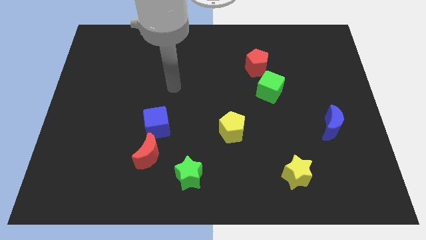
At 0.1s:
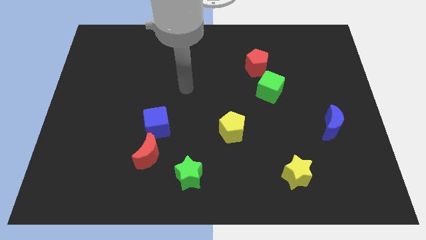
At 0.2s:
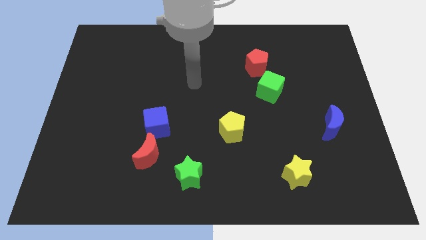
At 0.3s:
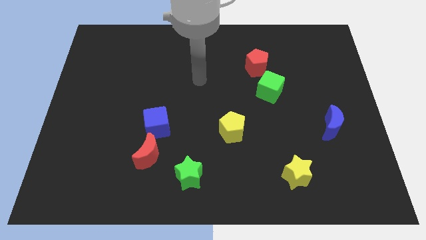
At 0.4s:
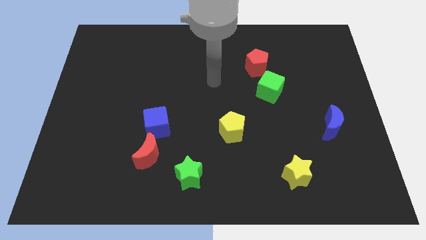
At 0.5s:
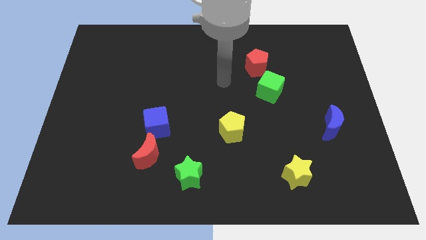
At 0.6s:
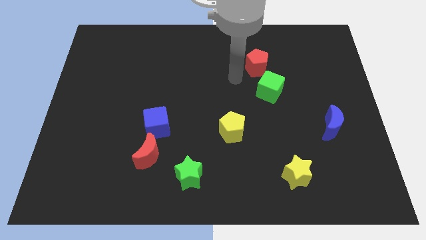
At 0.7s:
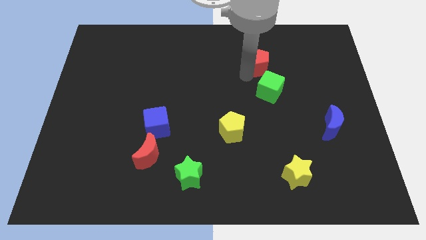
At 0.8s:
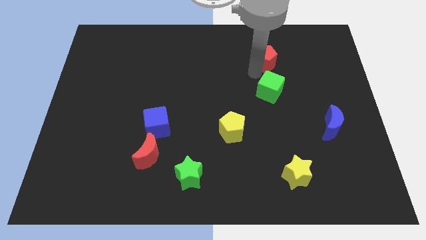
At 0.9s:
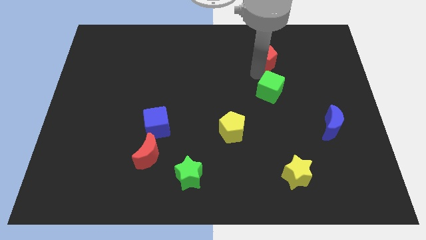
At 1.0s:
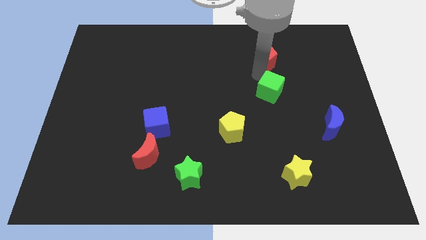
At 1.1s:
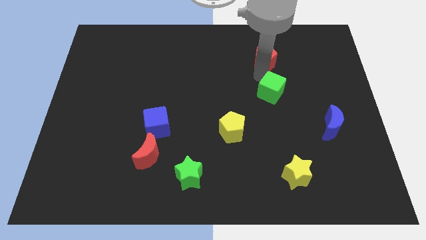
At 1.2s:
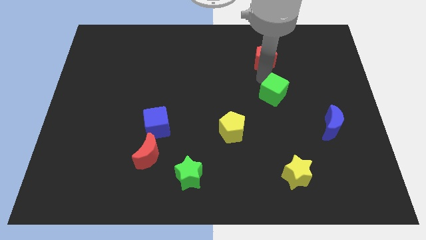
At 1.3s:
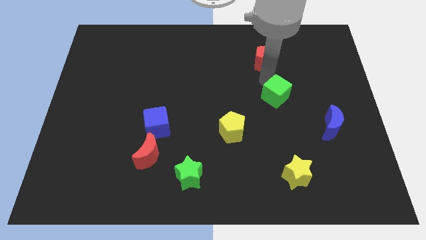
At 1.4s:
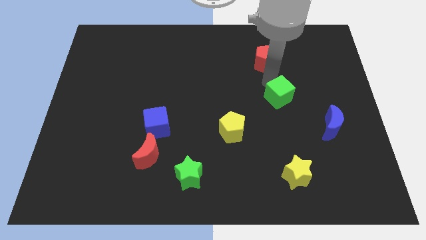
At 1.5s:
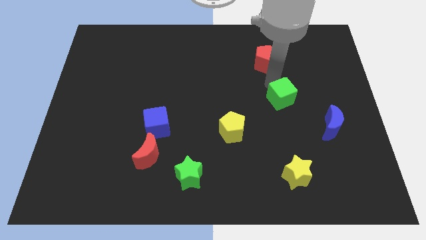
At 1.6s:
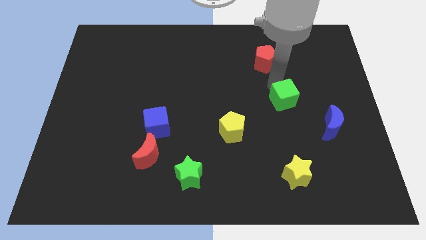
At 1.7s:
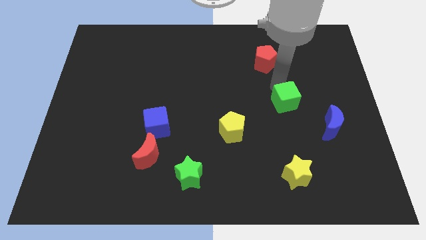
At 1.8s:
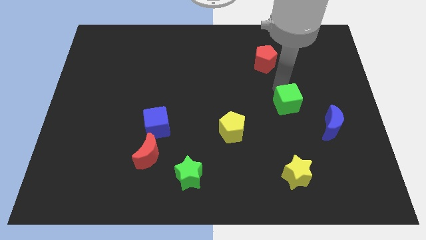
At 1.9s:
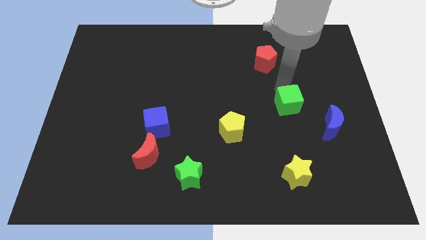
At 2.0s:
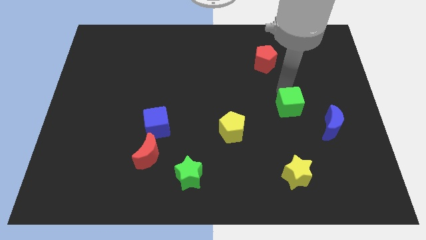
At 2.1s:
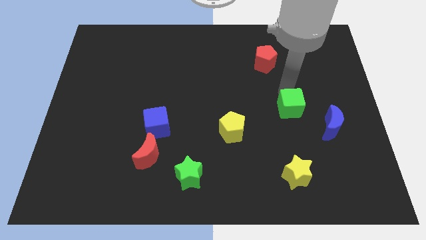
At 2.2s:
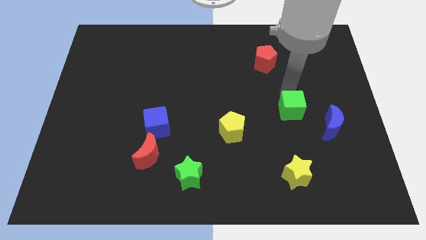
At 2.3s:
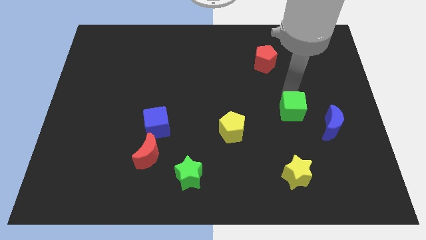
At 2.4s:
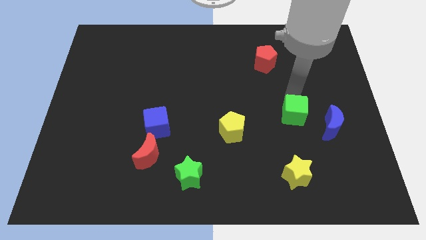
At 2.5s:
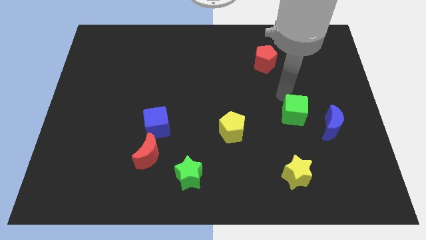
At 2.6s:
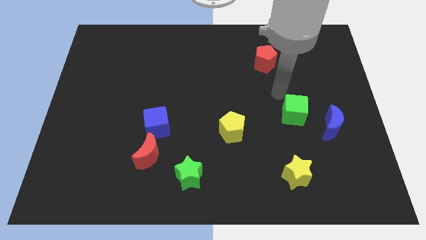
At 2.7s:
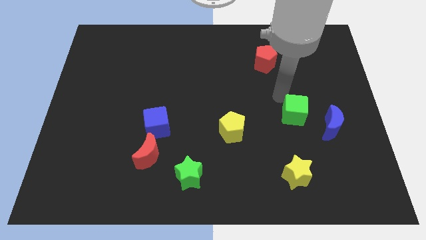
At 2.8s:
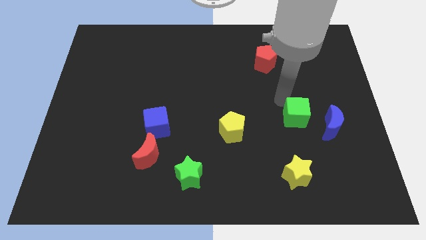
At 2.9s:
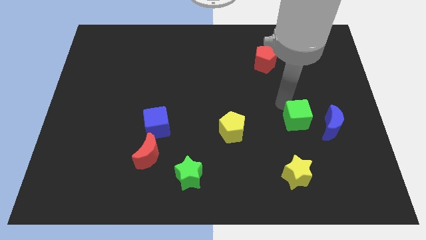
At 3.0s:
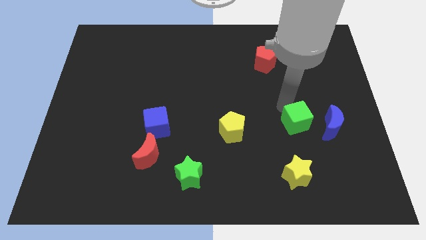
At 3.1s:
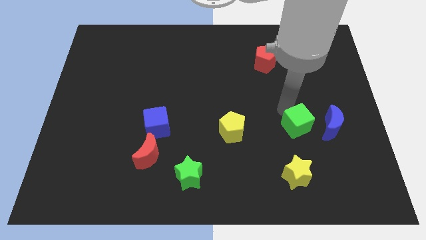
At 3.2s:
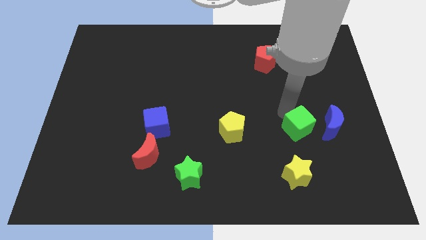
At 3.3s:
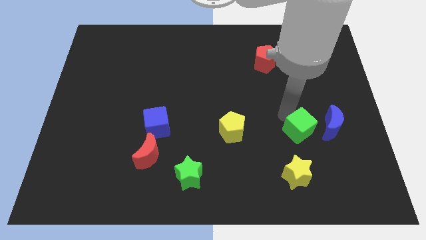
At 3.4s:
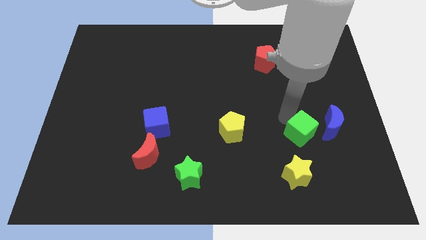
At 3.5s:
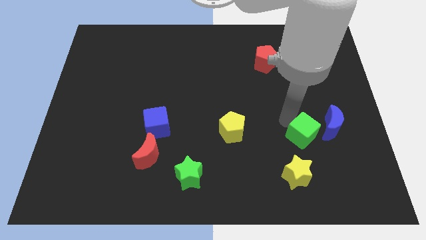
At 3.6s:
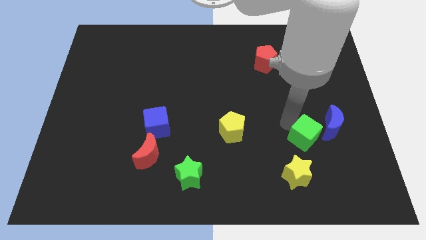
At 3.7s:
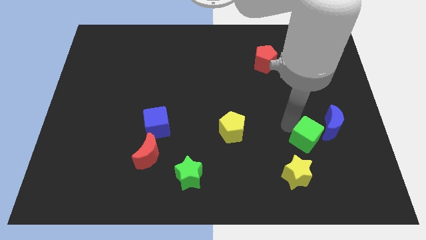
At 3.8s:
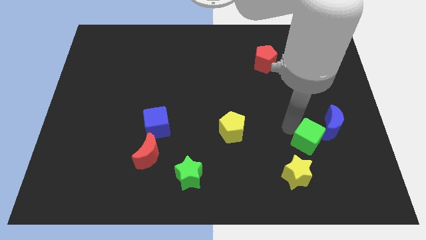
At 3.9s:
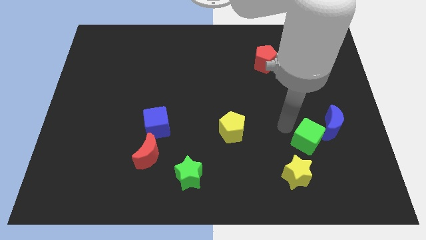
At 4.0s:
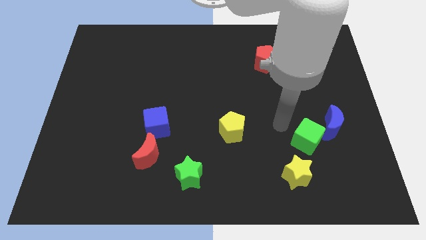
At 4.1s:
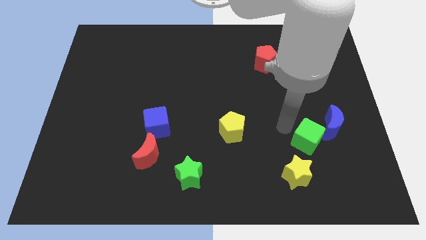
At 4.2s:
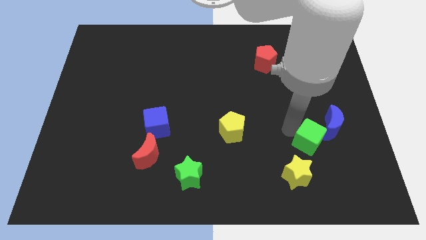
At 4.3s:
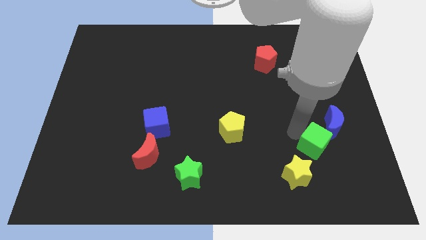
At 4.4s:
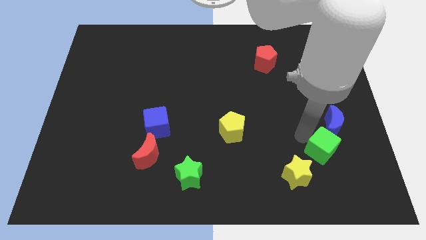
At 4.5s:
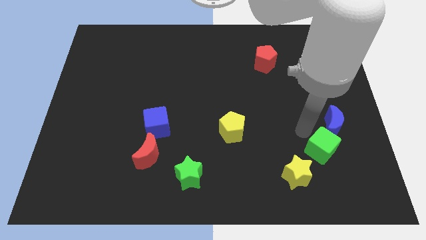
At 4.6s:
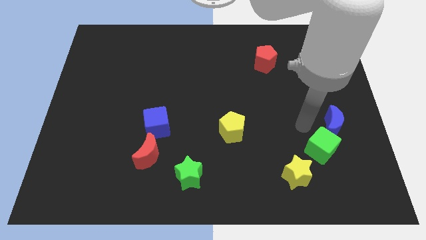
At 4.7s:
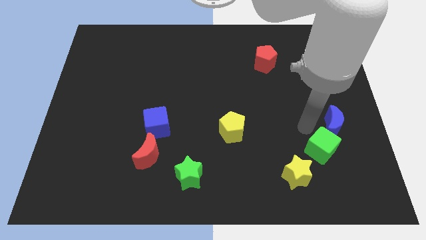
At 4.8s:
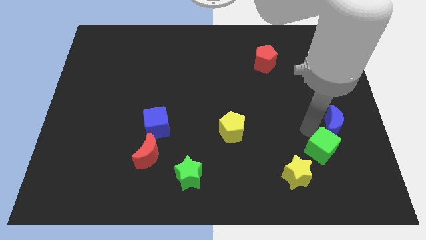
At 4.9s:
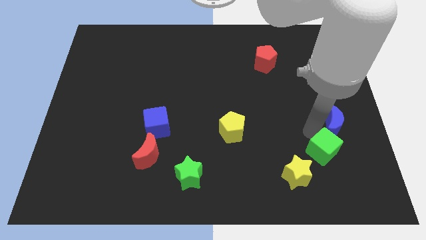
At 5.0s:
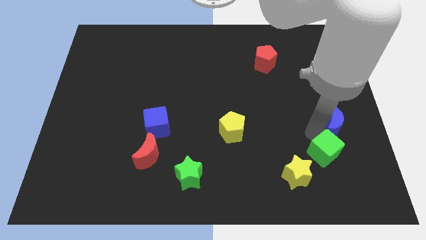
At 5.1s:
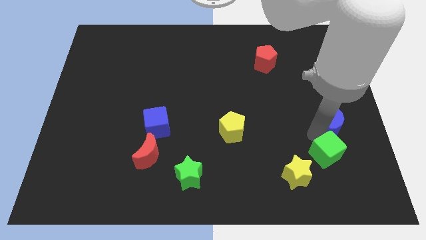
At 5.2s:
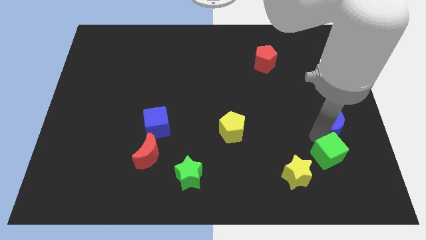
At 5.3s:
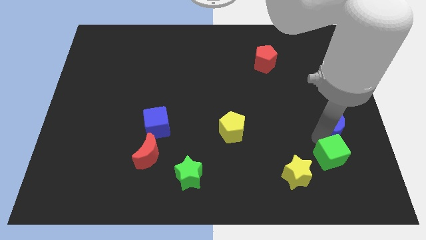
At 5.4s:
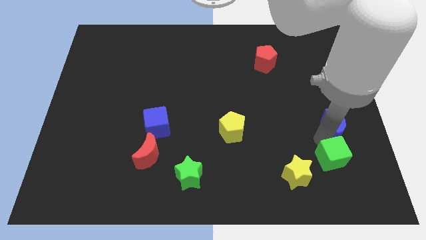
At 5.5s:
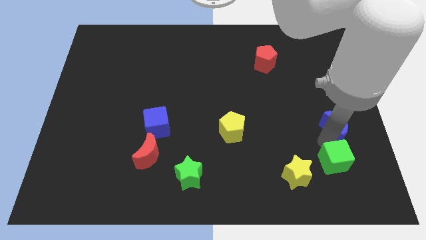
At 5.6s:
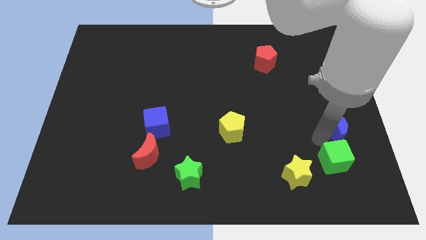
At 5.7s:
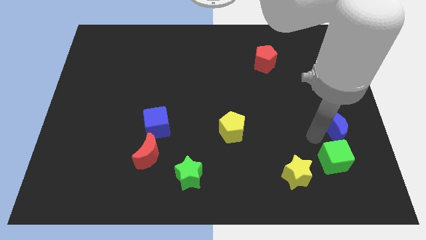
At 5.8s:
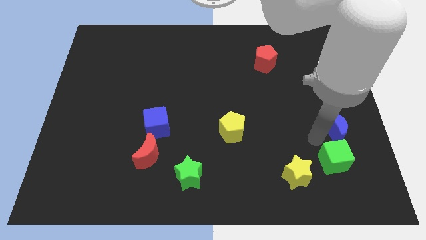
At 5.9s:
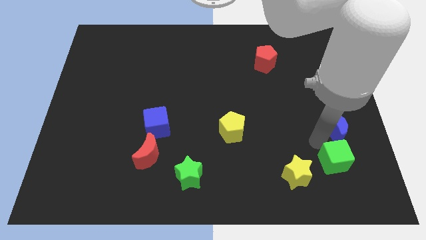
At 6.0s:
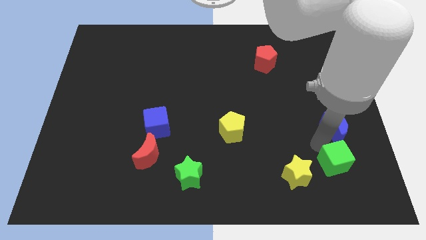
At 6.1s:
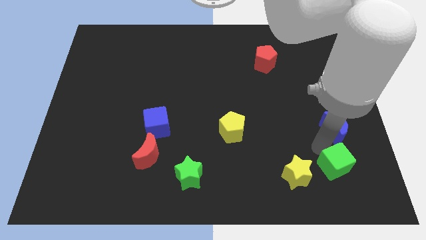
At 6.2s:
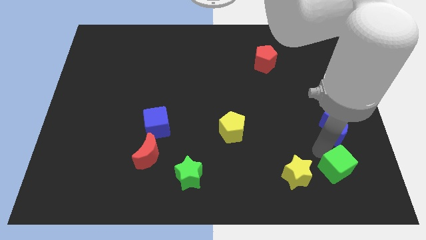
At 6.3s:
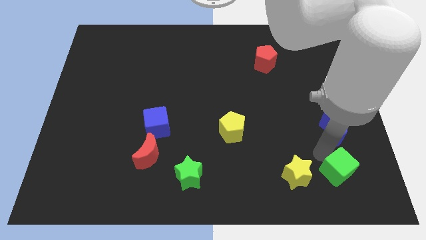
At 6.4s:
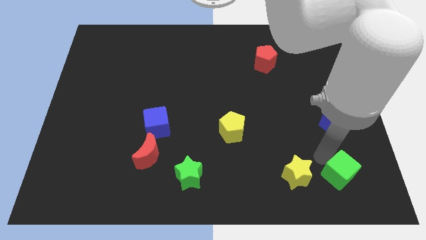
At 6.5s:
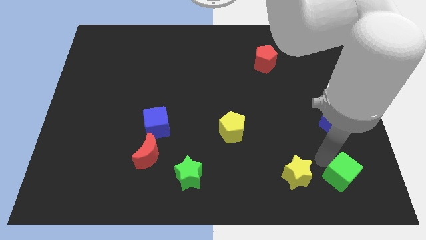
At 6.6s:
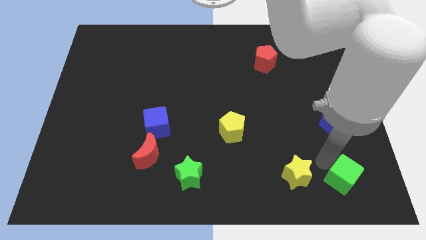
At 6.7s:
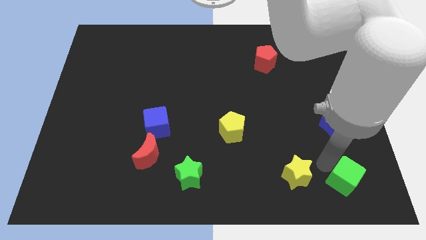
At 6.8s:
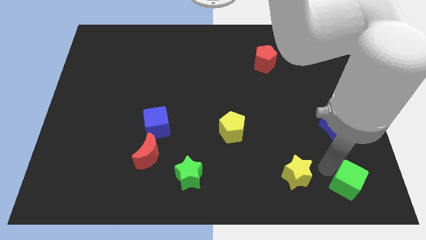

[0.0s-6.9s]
put the green cube to the bottom right corner

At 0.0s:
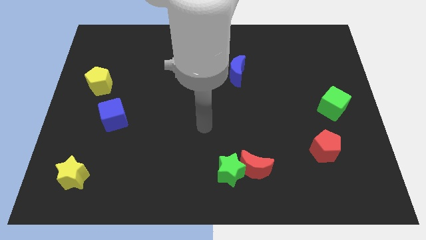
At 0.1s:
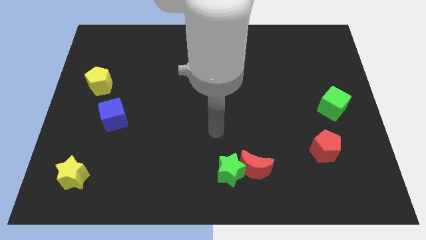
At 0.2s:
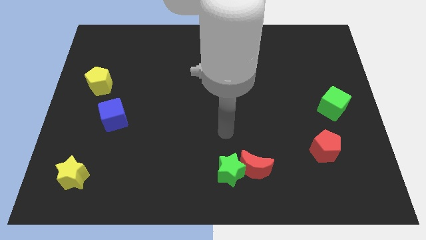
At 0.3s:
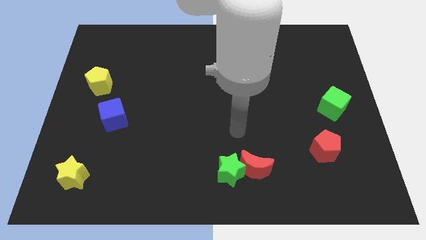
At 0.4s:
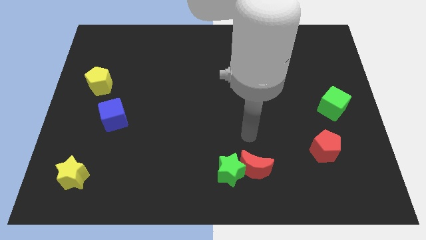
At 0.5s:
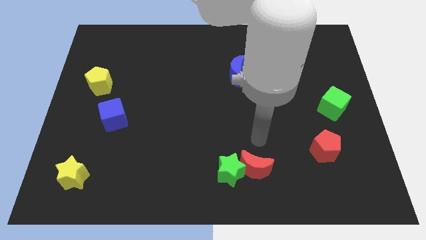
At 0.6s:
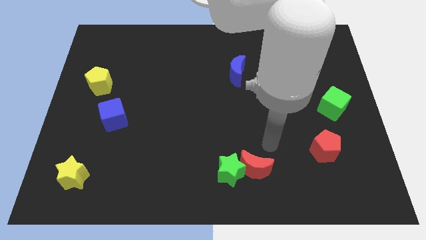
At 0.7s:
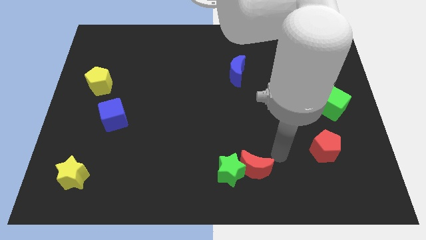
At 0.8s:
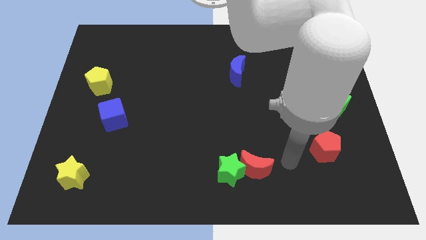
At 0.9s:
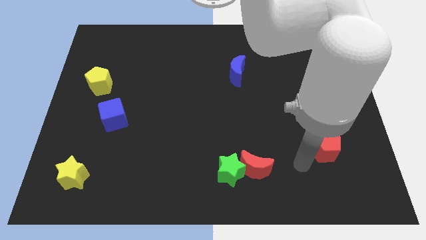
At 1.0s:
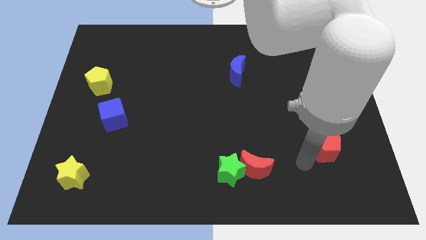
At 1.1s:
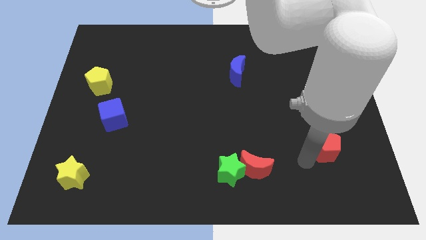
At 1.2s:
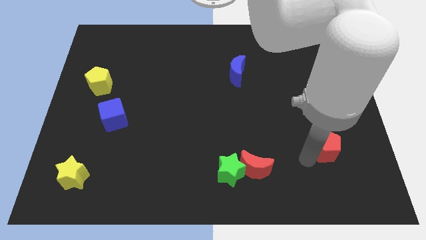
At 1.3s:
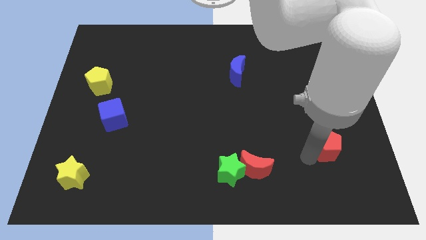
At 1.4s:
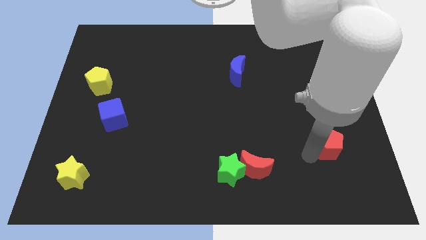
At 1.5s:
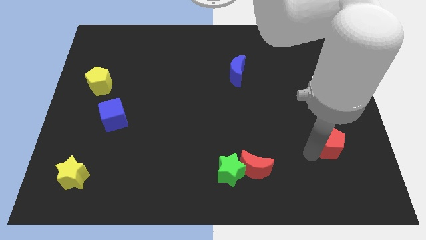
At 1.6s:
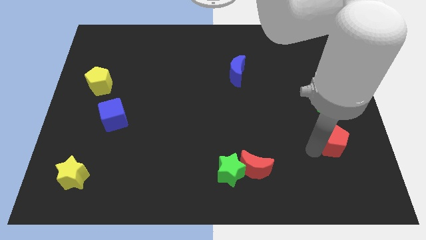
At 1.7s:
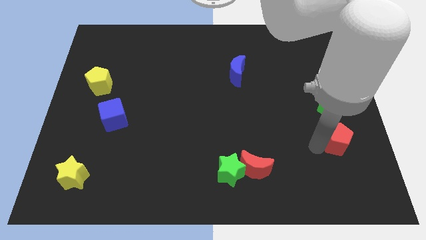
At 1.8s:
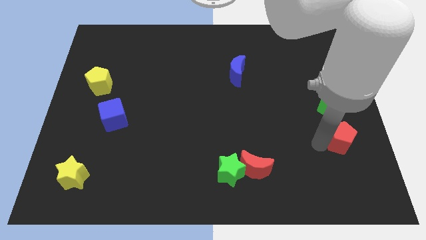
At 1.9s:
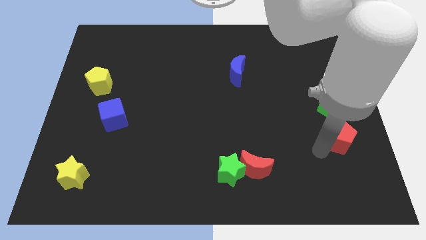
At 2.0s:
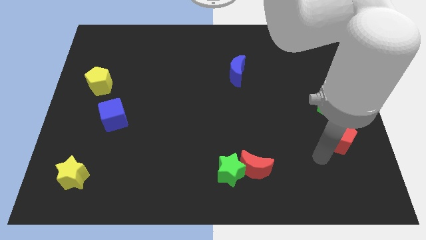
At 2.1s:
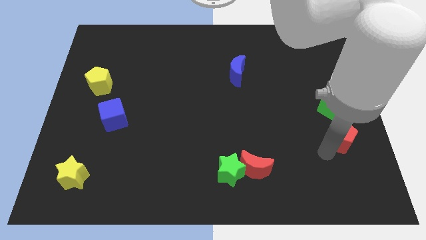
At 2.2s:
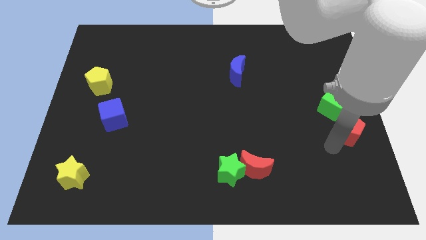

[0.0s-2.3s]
move the red pentagon to the right side
